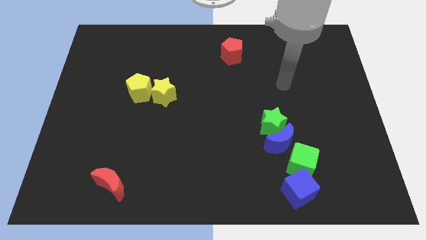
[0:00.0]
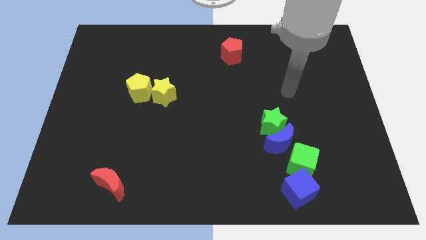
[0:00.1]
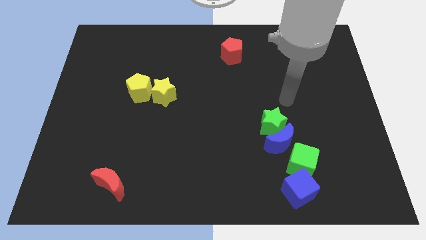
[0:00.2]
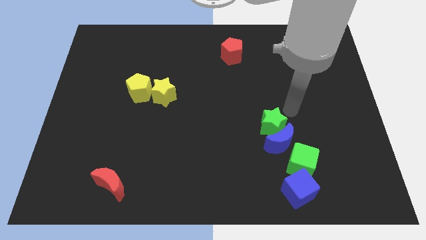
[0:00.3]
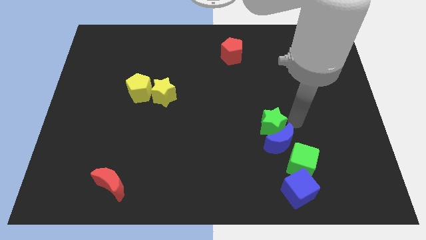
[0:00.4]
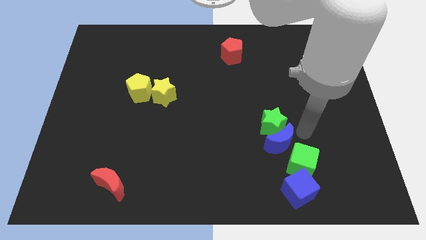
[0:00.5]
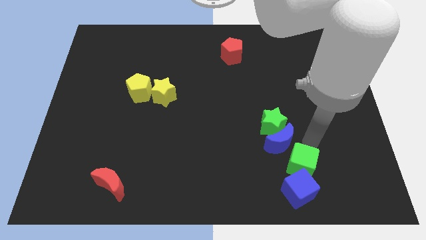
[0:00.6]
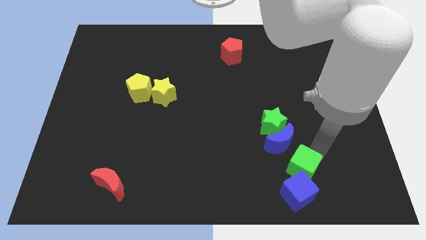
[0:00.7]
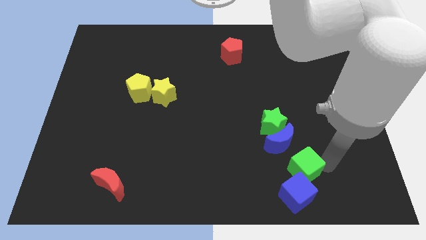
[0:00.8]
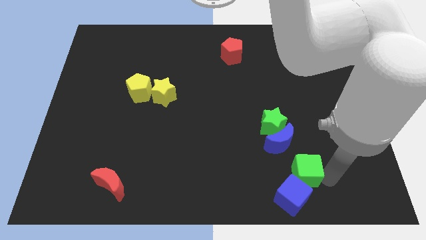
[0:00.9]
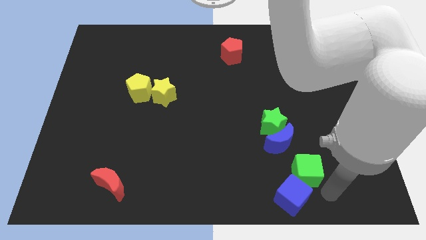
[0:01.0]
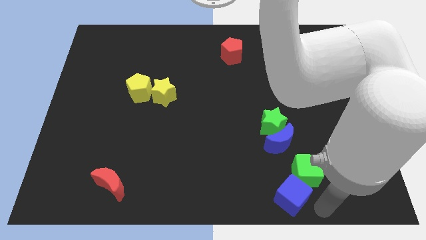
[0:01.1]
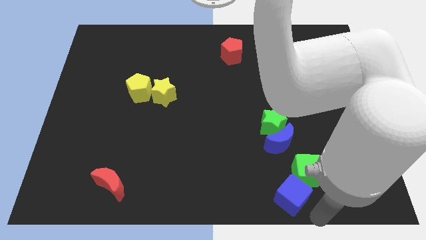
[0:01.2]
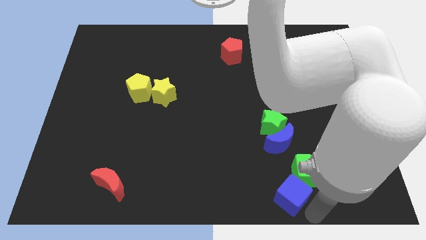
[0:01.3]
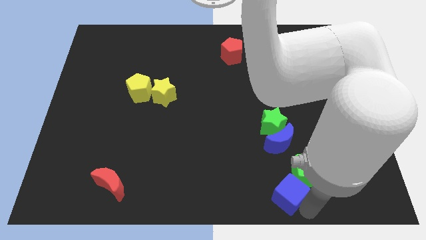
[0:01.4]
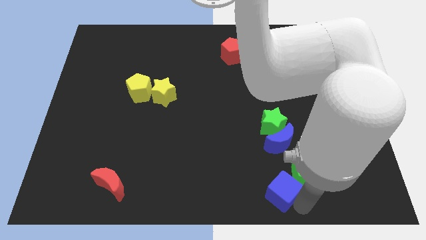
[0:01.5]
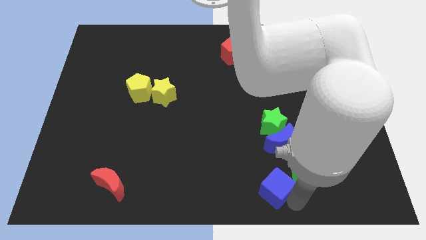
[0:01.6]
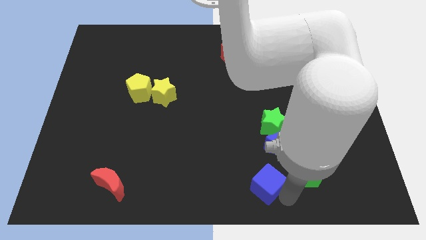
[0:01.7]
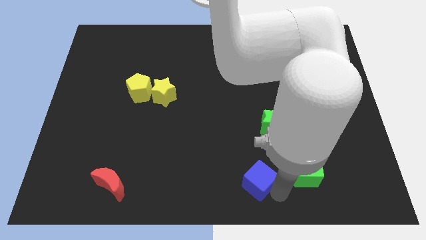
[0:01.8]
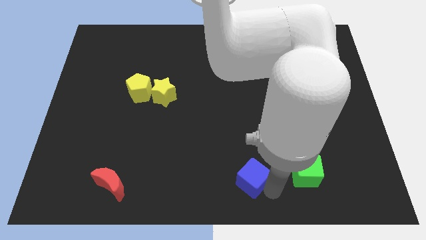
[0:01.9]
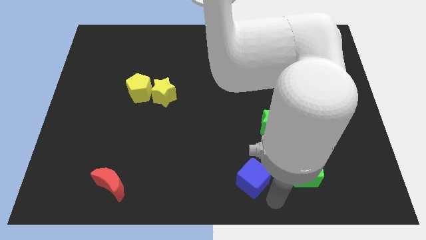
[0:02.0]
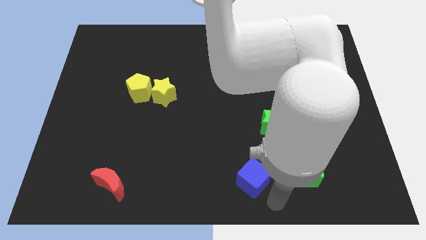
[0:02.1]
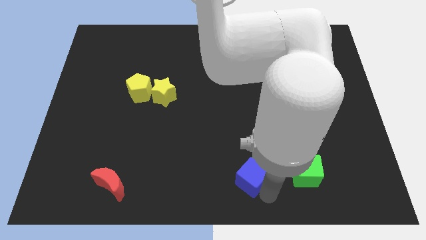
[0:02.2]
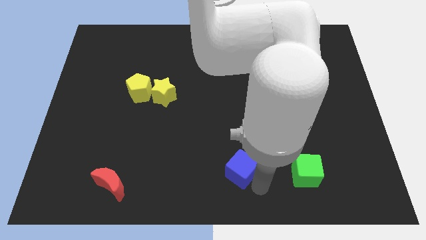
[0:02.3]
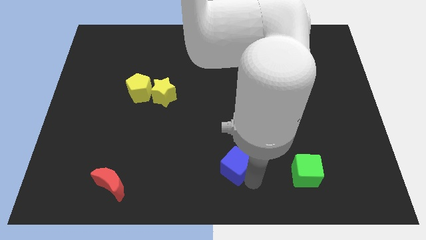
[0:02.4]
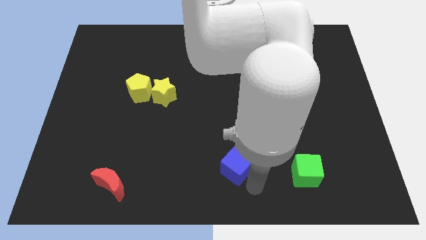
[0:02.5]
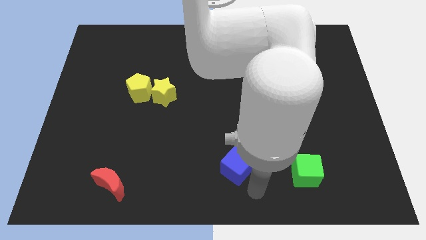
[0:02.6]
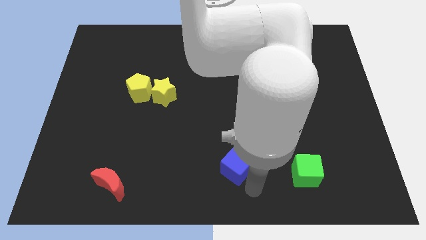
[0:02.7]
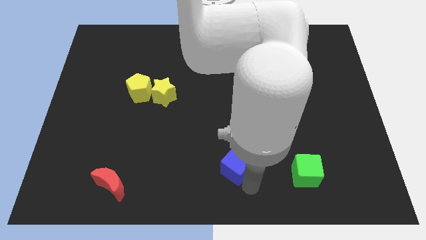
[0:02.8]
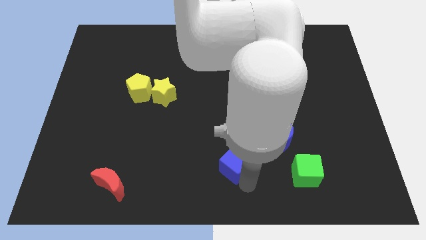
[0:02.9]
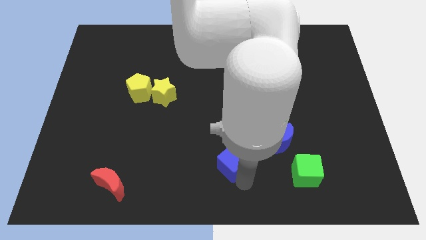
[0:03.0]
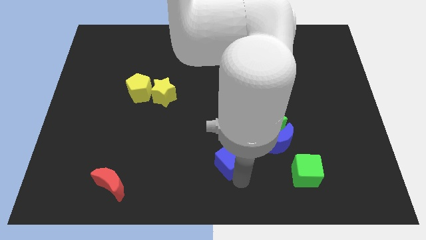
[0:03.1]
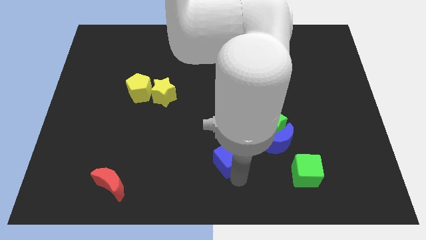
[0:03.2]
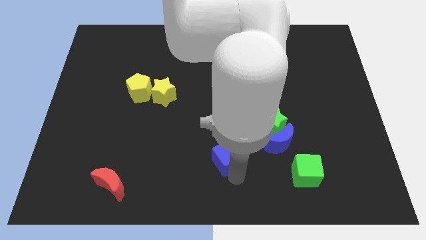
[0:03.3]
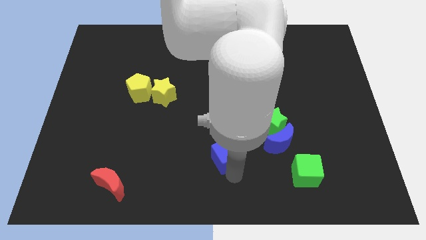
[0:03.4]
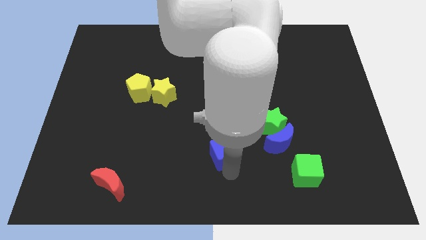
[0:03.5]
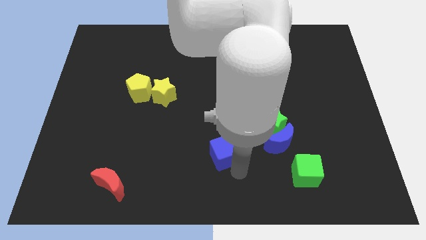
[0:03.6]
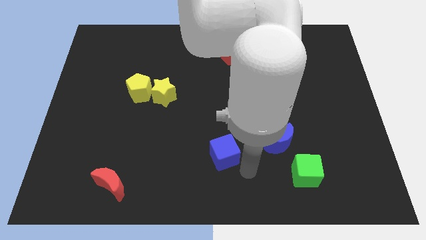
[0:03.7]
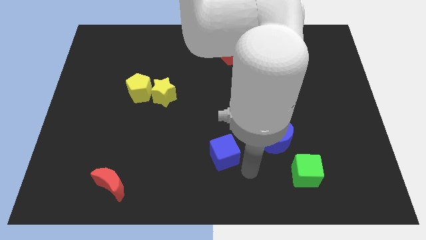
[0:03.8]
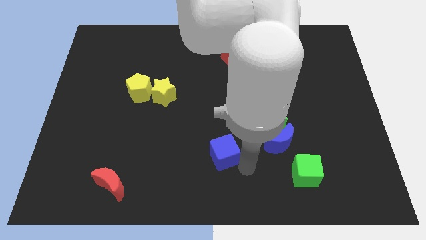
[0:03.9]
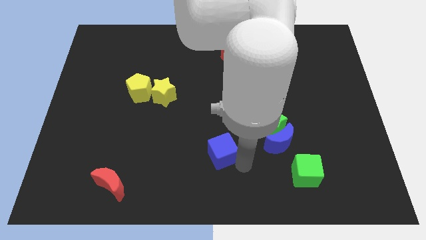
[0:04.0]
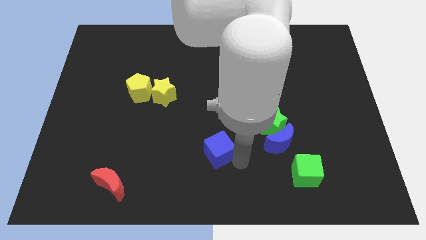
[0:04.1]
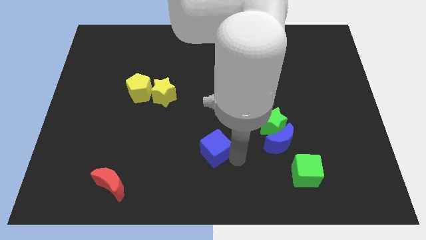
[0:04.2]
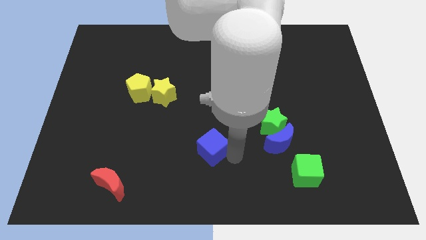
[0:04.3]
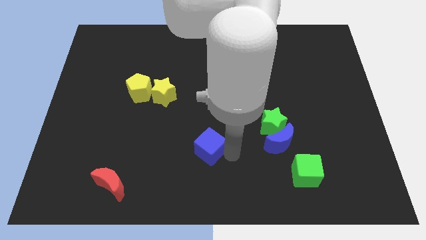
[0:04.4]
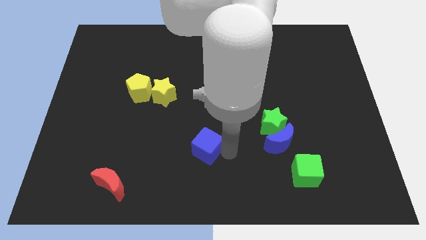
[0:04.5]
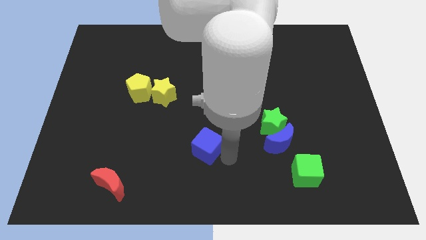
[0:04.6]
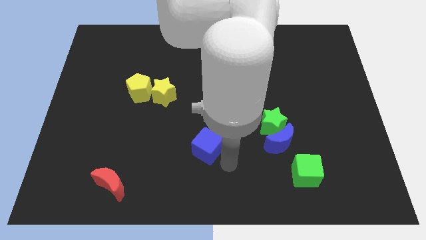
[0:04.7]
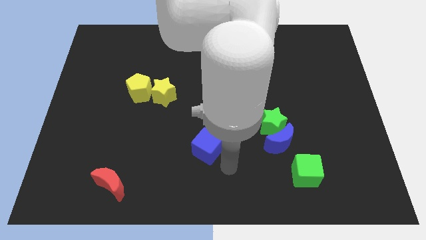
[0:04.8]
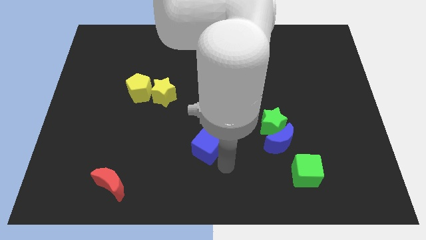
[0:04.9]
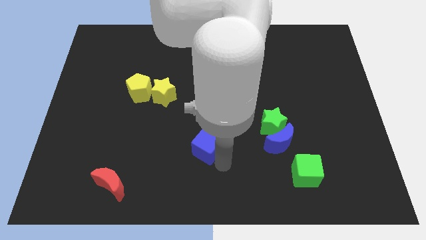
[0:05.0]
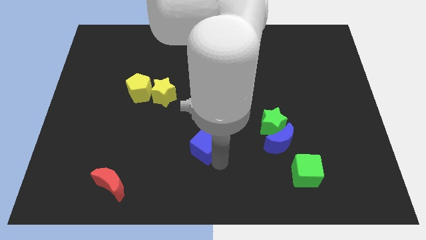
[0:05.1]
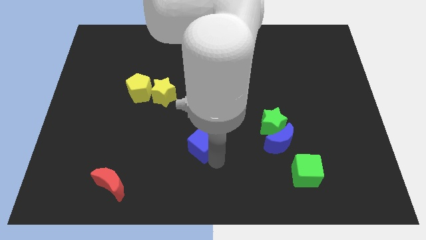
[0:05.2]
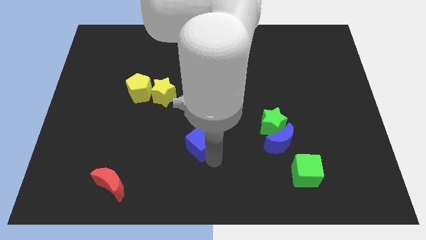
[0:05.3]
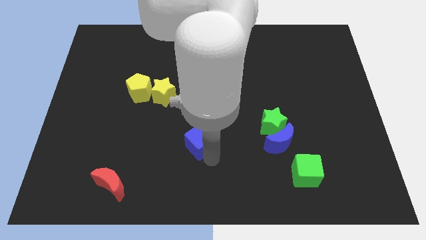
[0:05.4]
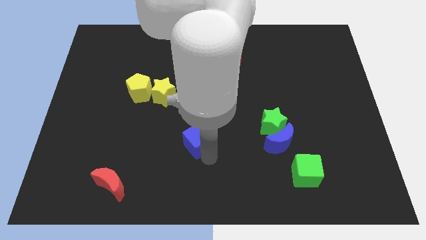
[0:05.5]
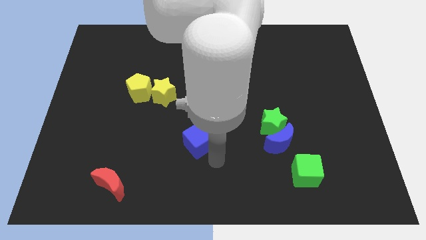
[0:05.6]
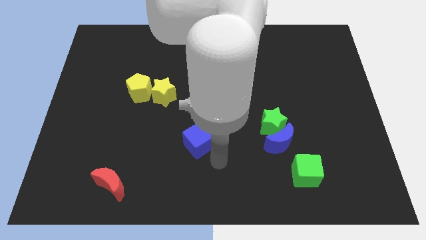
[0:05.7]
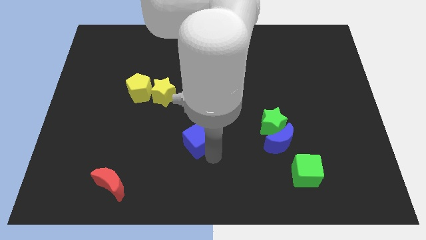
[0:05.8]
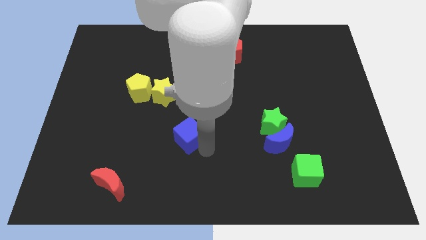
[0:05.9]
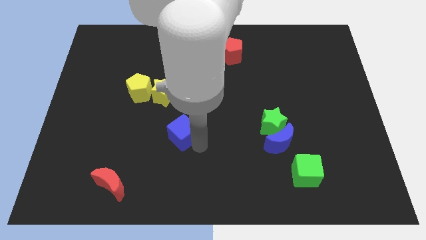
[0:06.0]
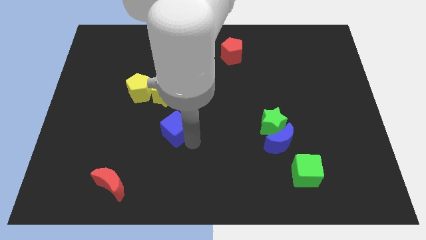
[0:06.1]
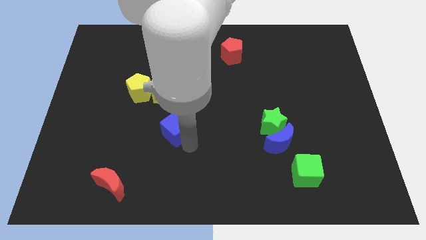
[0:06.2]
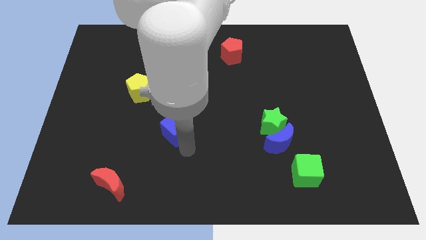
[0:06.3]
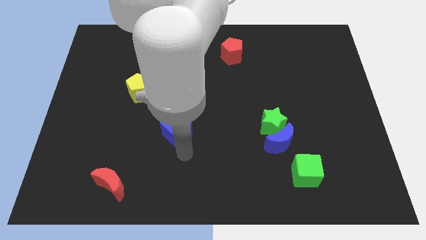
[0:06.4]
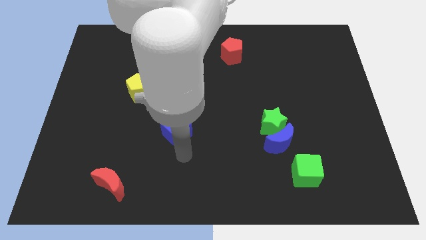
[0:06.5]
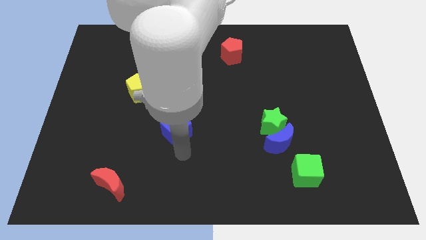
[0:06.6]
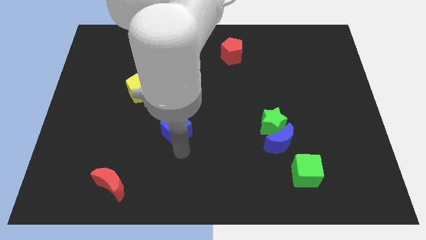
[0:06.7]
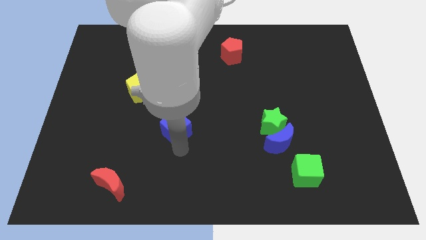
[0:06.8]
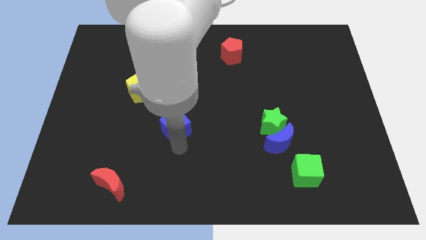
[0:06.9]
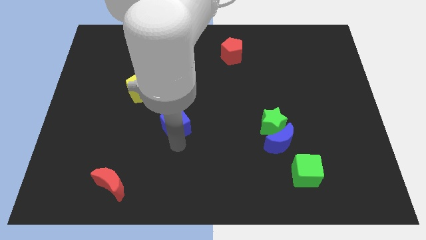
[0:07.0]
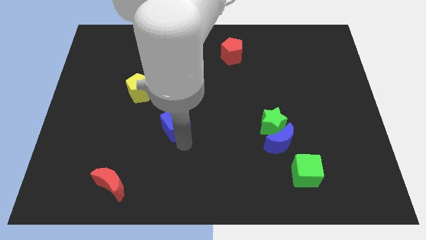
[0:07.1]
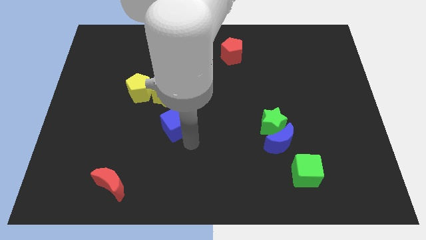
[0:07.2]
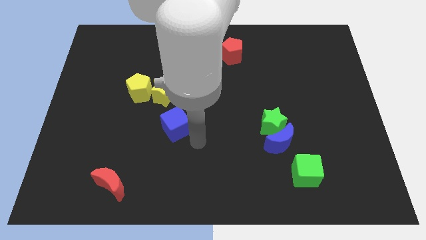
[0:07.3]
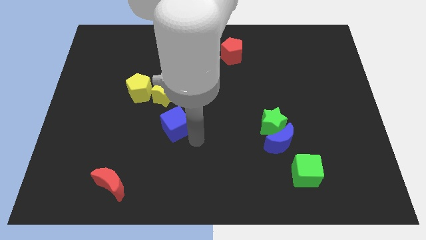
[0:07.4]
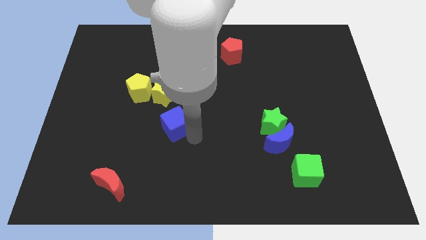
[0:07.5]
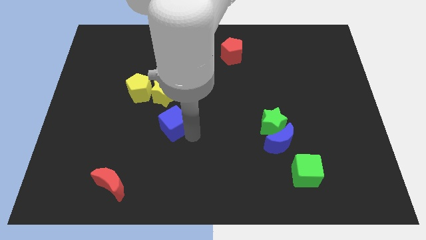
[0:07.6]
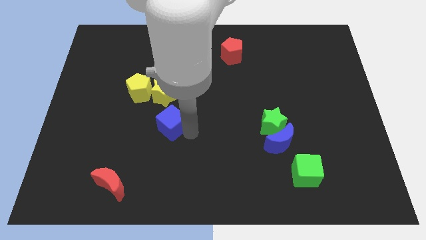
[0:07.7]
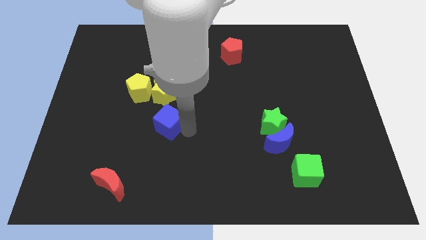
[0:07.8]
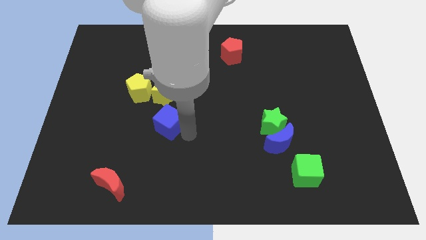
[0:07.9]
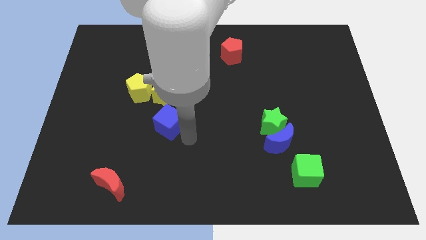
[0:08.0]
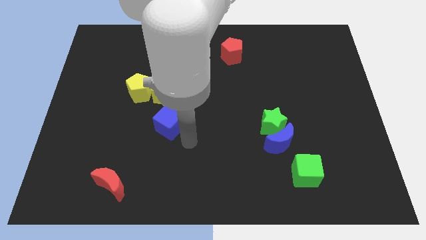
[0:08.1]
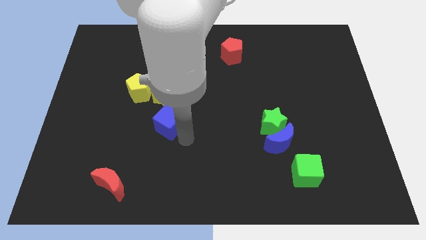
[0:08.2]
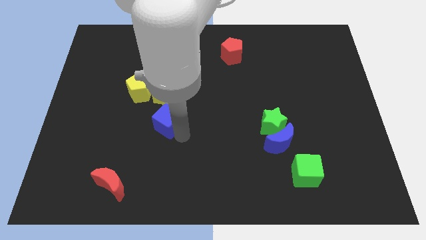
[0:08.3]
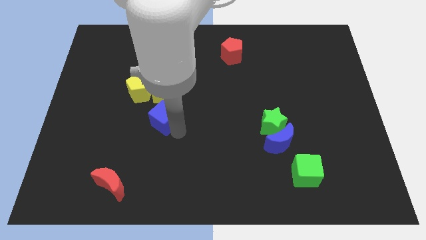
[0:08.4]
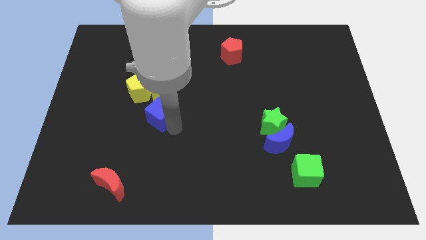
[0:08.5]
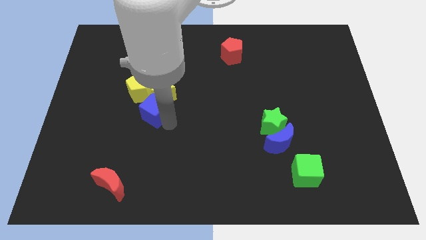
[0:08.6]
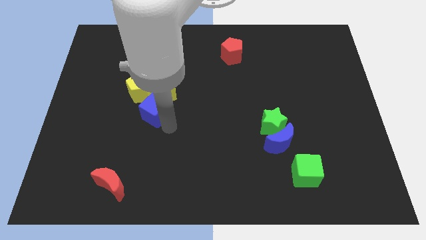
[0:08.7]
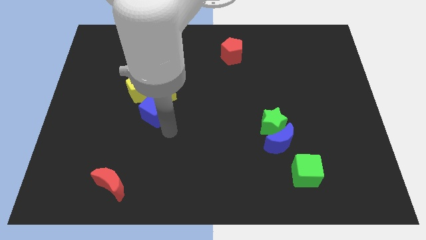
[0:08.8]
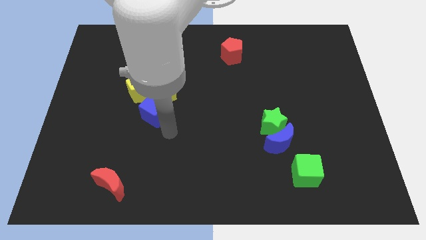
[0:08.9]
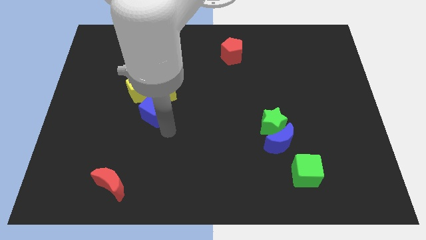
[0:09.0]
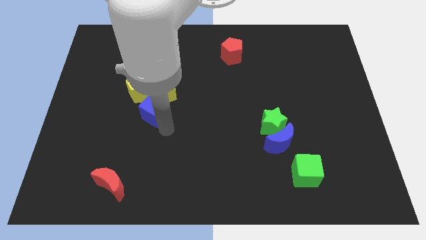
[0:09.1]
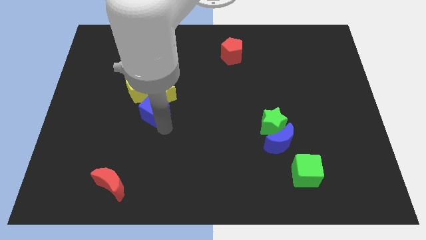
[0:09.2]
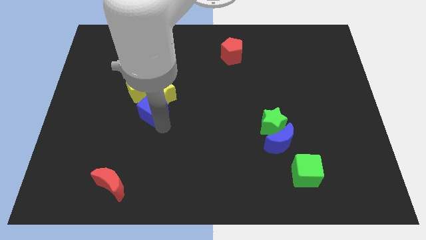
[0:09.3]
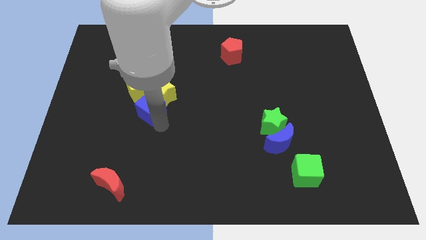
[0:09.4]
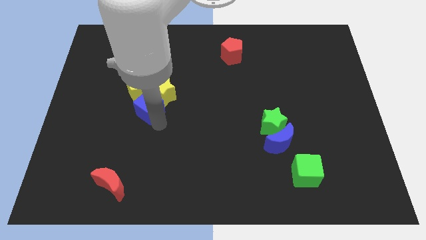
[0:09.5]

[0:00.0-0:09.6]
push the blue cube next to the yellow pentagon
